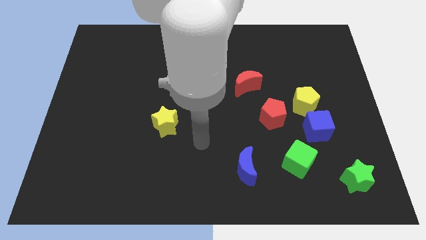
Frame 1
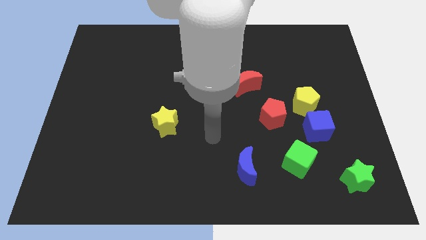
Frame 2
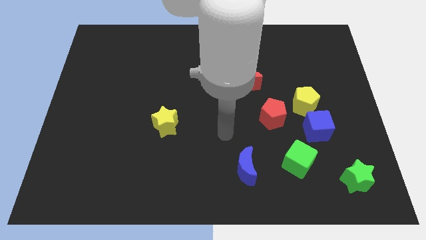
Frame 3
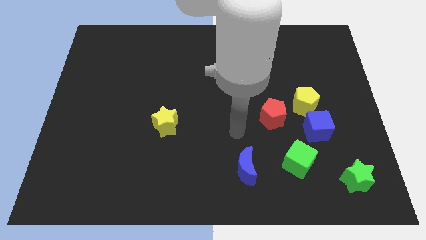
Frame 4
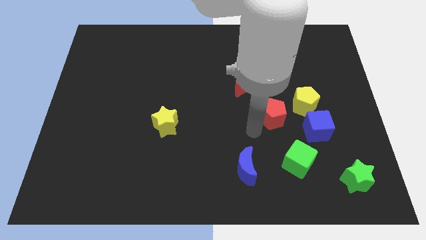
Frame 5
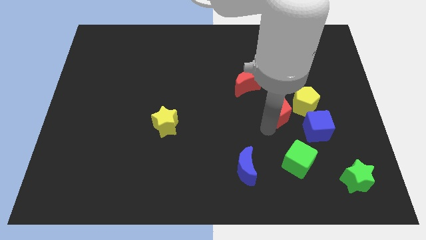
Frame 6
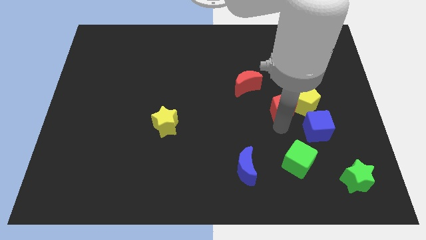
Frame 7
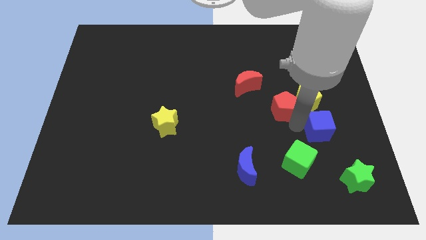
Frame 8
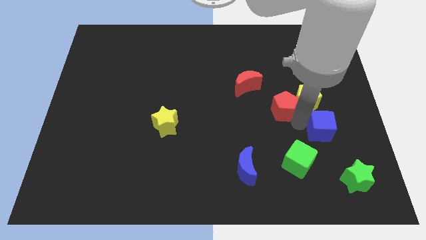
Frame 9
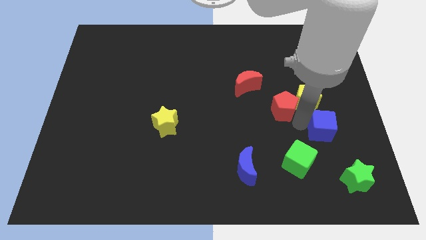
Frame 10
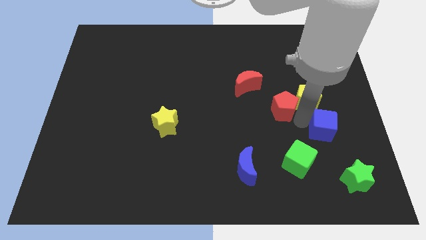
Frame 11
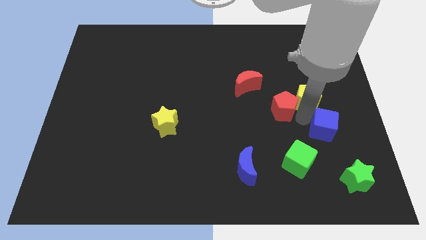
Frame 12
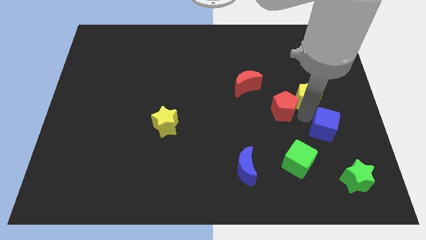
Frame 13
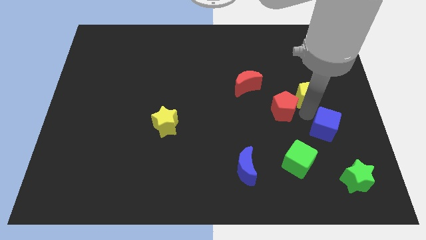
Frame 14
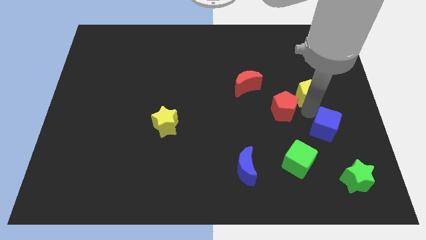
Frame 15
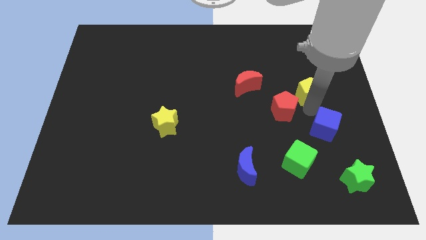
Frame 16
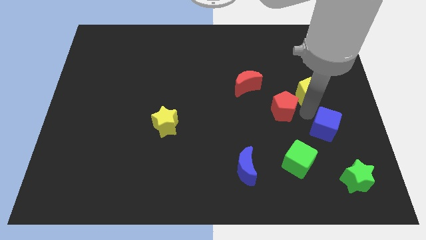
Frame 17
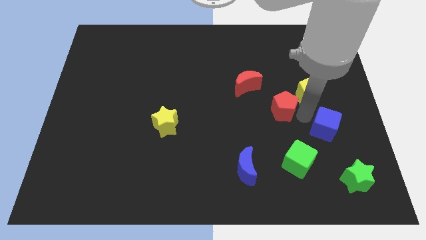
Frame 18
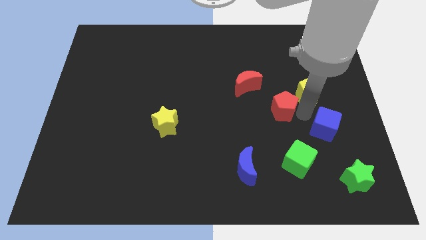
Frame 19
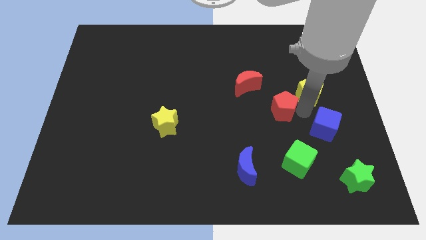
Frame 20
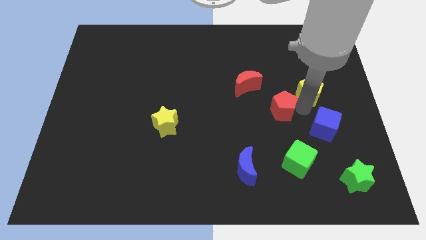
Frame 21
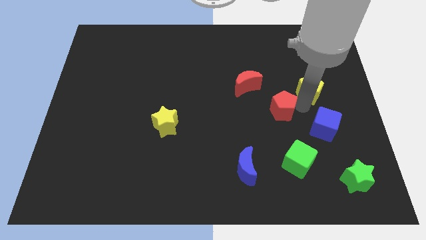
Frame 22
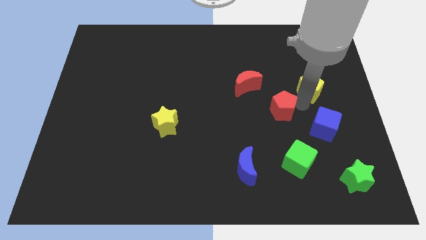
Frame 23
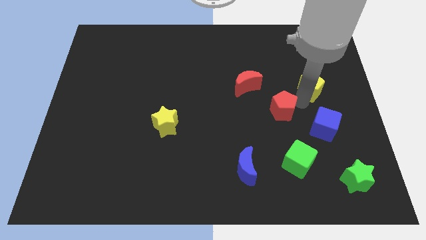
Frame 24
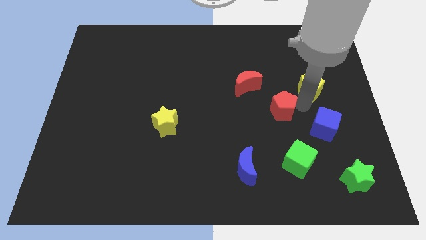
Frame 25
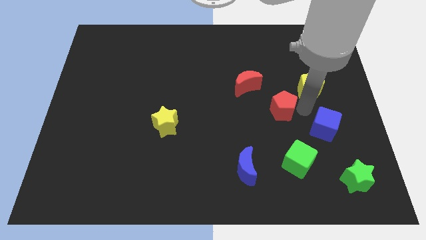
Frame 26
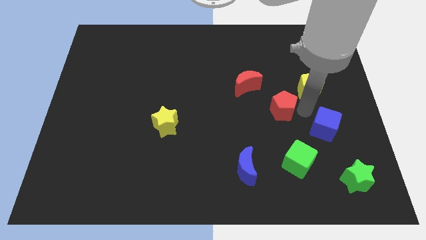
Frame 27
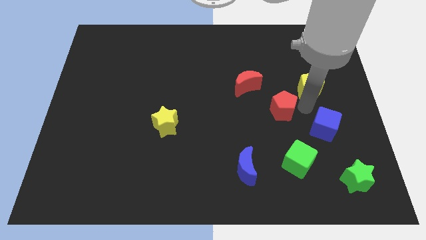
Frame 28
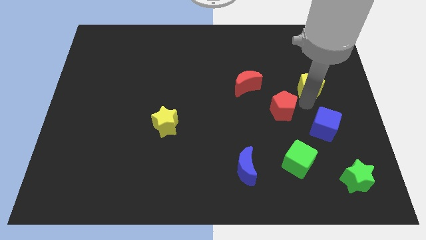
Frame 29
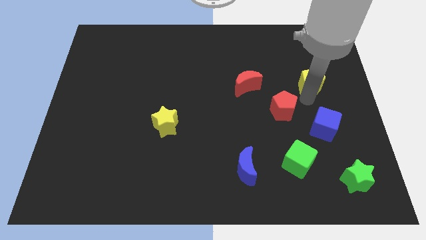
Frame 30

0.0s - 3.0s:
pull the yellow pentagon apart from the blue cube and red pentagon

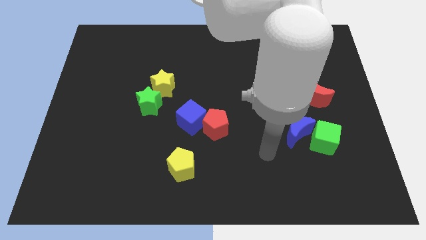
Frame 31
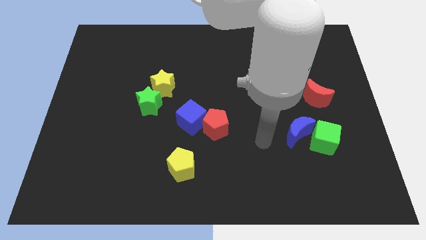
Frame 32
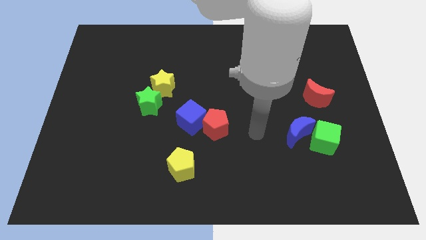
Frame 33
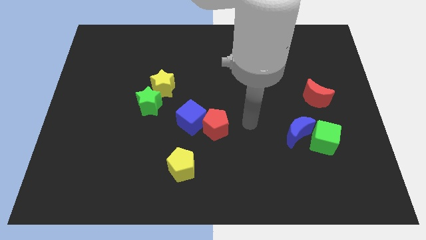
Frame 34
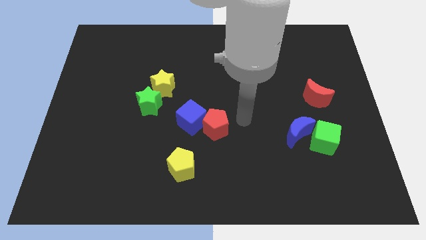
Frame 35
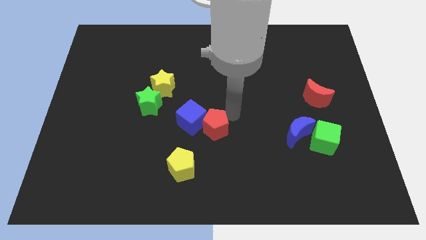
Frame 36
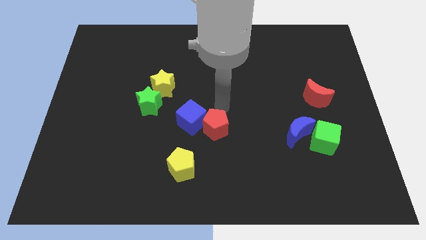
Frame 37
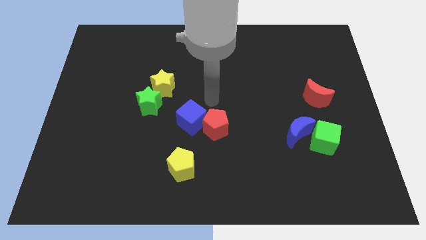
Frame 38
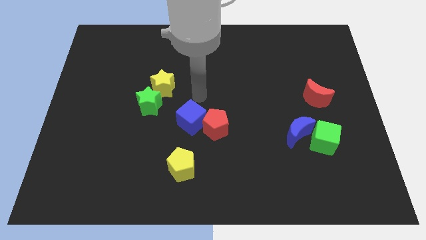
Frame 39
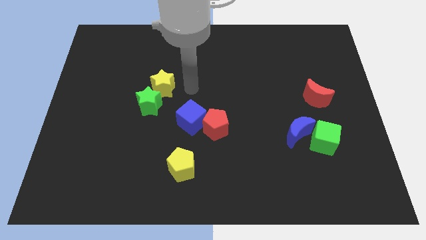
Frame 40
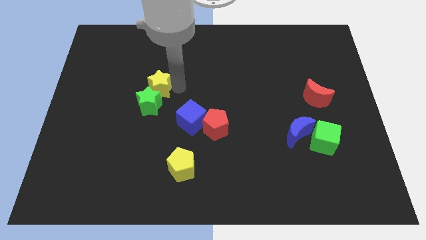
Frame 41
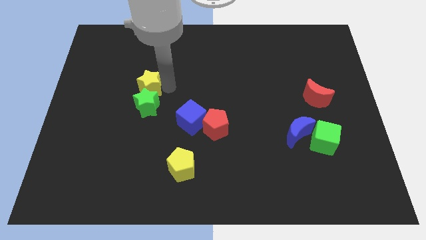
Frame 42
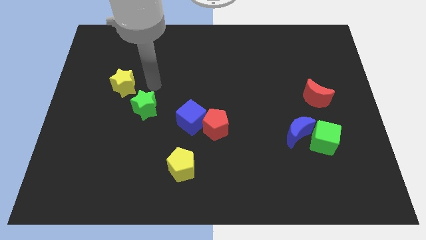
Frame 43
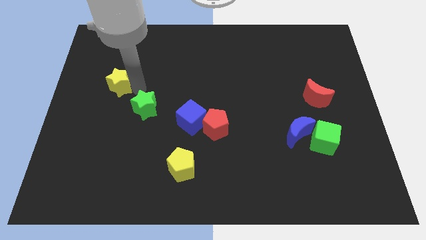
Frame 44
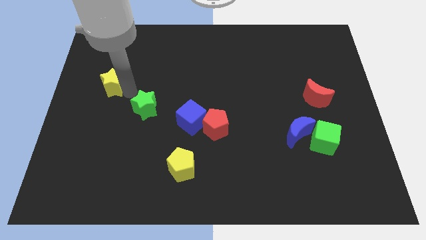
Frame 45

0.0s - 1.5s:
pull the green star apart from the yellow star

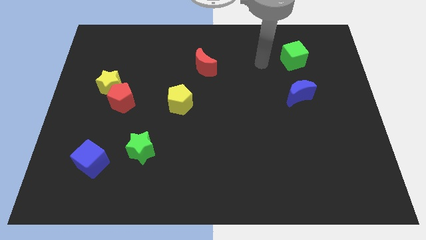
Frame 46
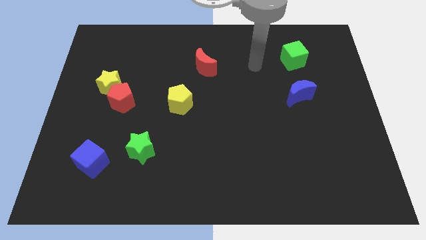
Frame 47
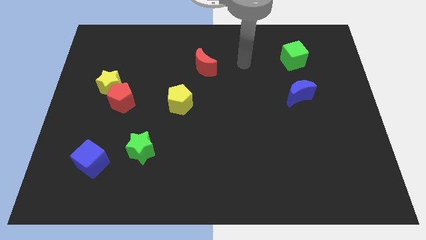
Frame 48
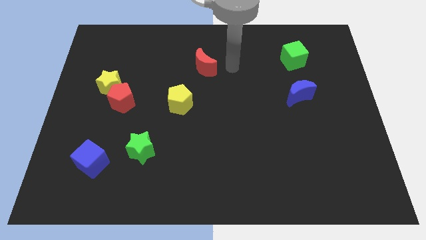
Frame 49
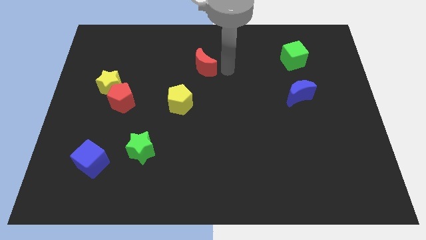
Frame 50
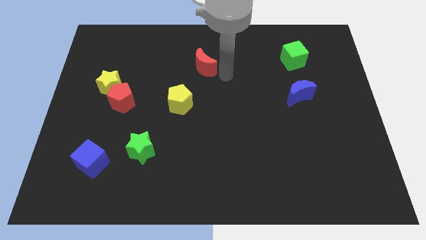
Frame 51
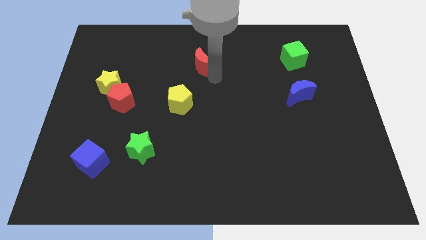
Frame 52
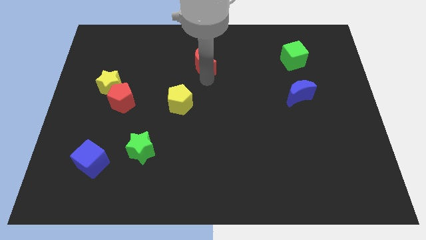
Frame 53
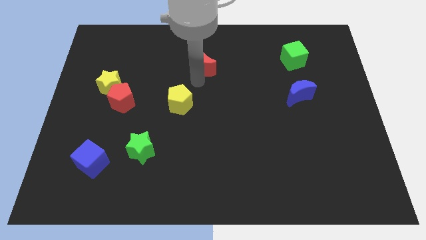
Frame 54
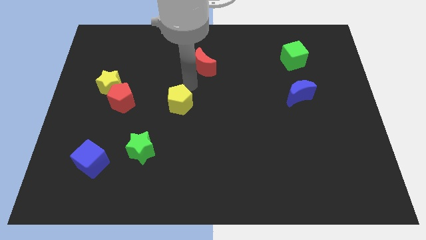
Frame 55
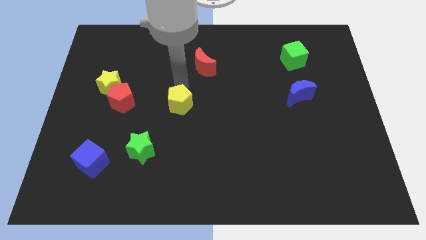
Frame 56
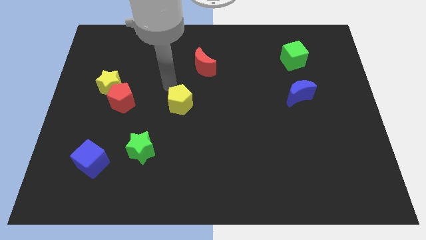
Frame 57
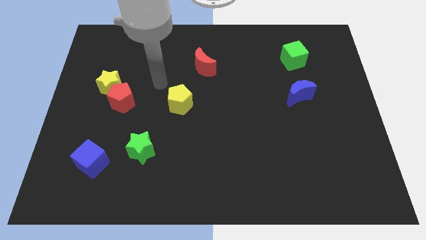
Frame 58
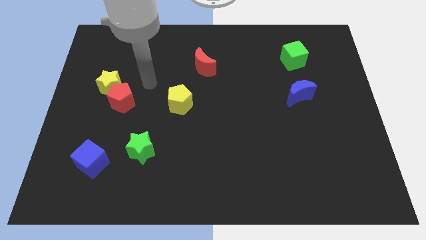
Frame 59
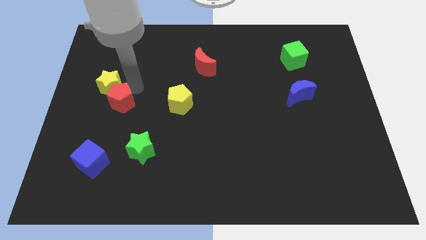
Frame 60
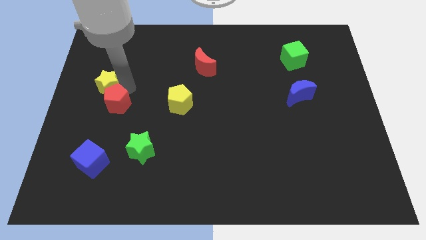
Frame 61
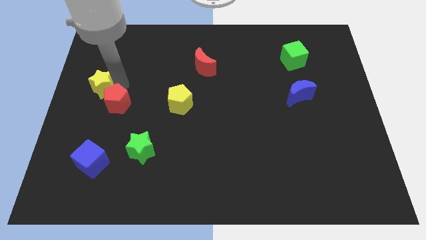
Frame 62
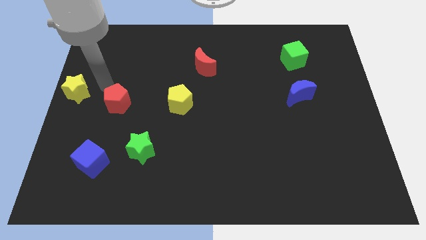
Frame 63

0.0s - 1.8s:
move the red pentagon away from the yellow star

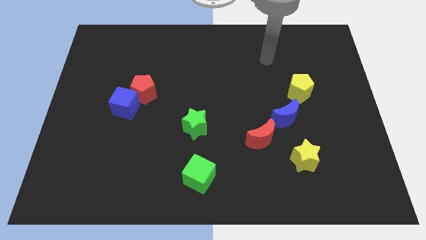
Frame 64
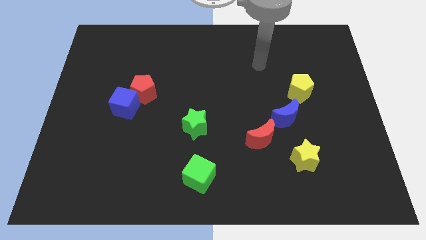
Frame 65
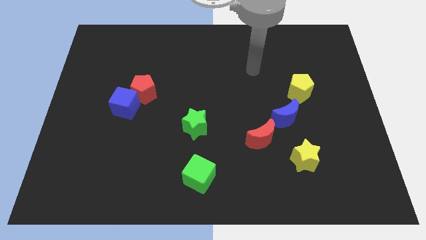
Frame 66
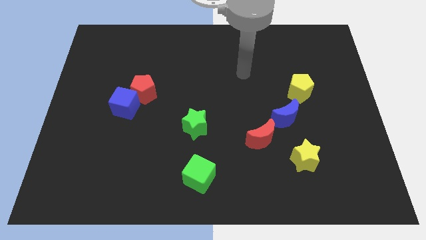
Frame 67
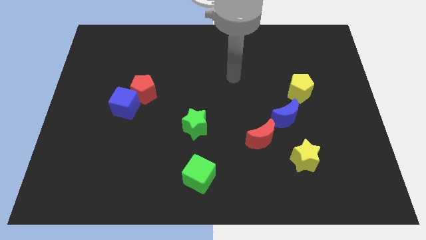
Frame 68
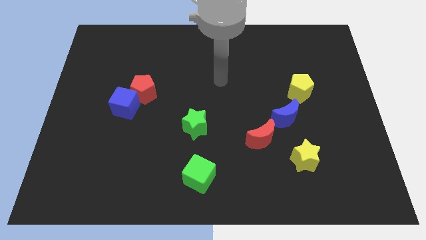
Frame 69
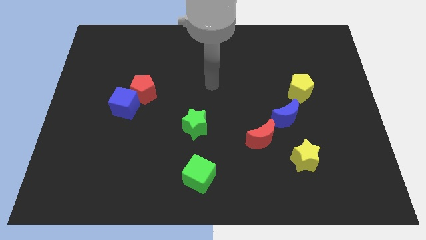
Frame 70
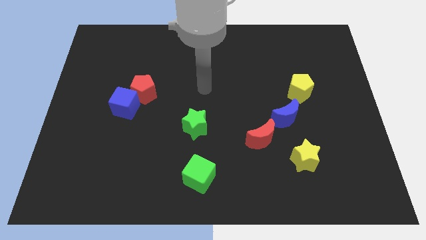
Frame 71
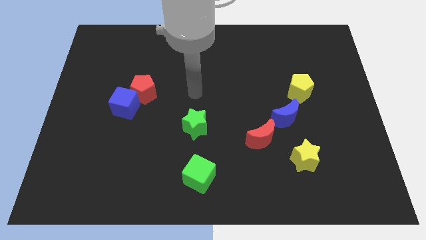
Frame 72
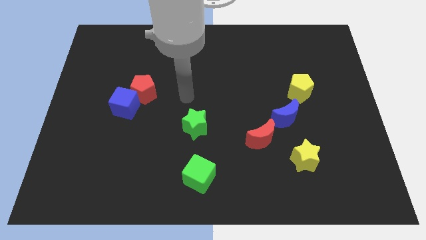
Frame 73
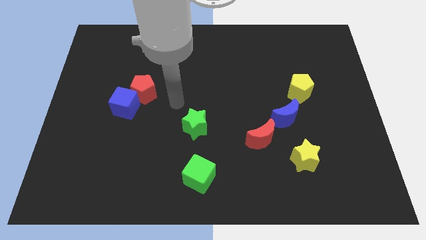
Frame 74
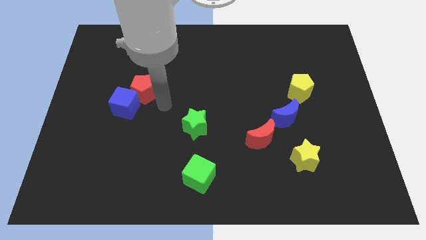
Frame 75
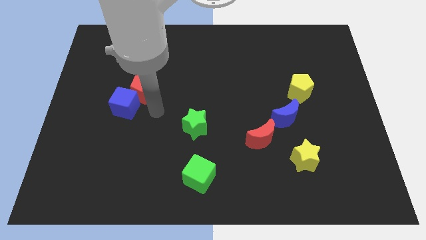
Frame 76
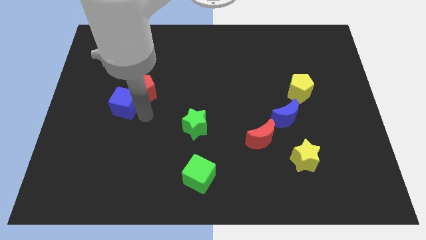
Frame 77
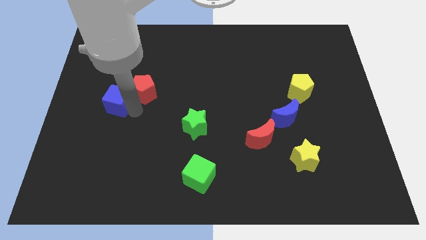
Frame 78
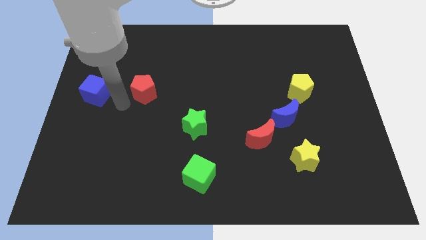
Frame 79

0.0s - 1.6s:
move the red pentagon away from the blue cube

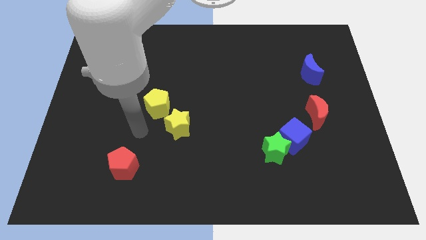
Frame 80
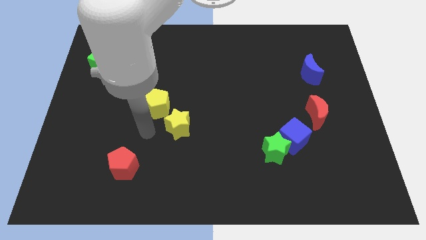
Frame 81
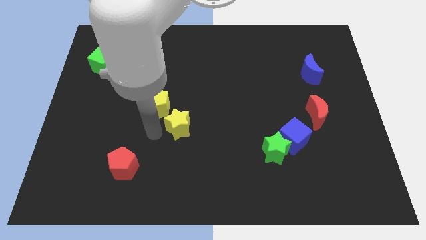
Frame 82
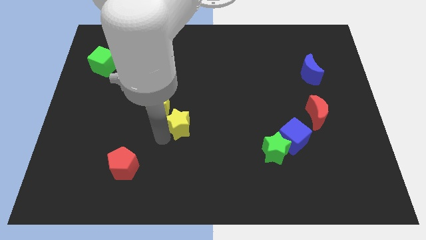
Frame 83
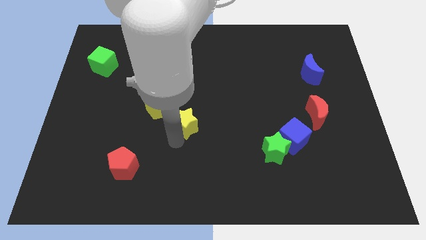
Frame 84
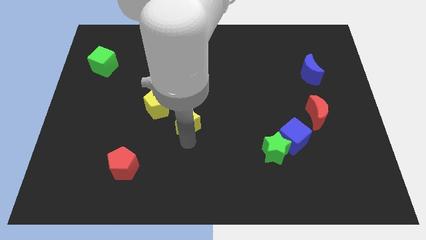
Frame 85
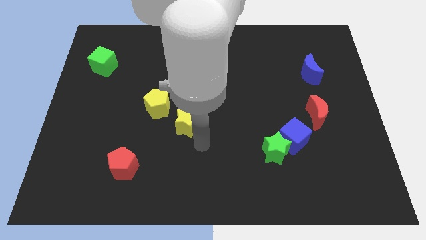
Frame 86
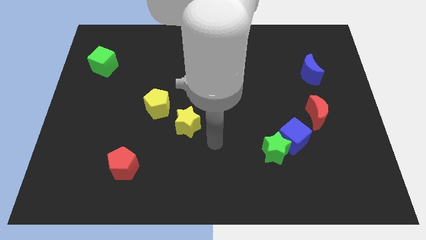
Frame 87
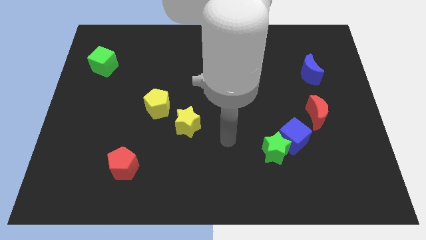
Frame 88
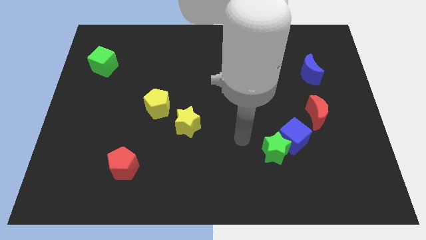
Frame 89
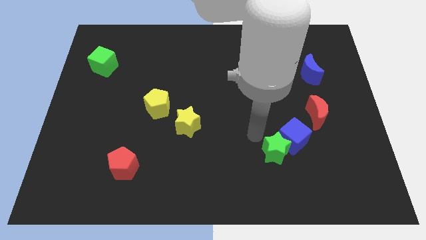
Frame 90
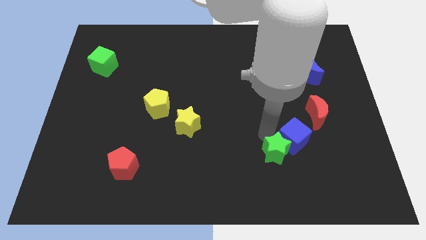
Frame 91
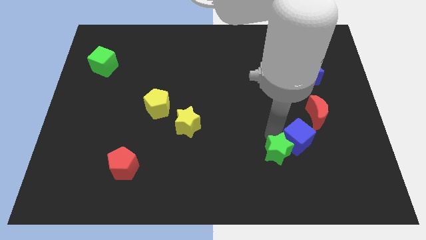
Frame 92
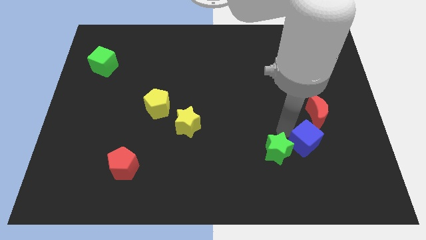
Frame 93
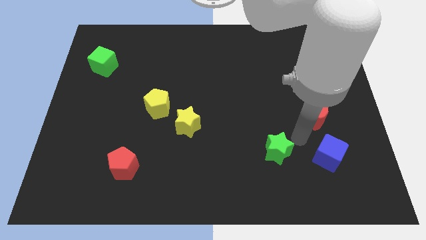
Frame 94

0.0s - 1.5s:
pull the green star apart from the blue cube

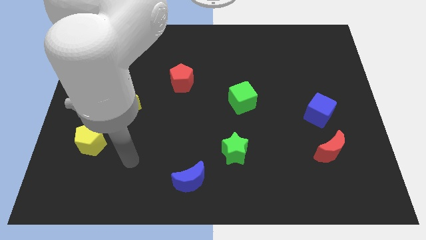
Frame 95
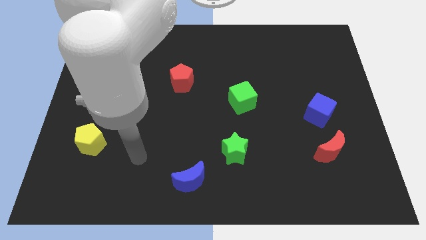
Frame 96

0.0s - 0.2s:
pull the red moon apart from the blue cube
